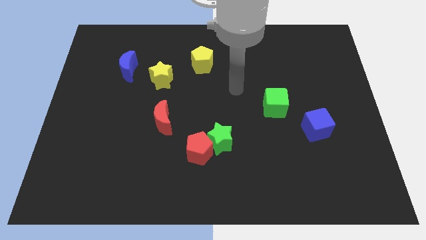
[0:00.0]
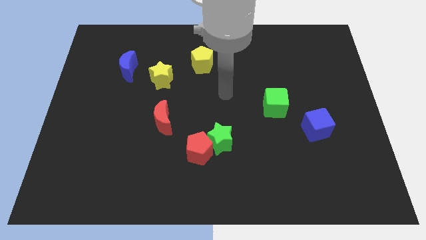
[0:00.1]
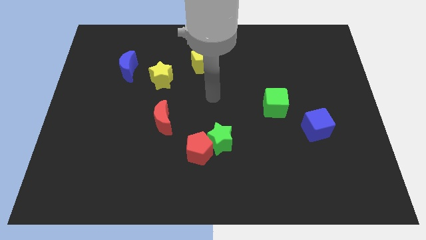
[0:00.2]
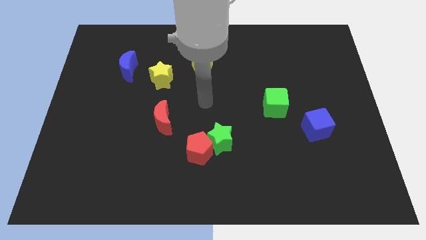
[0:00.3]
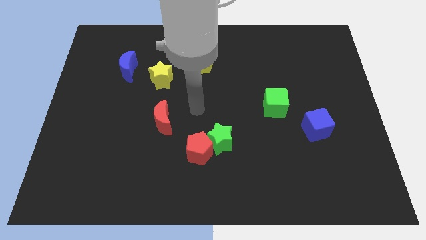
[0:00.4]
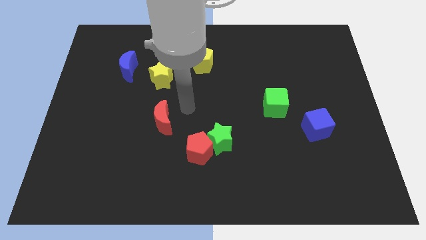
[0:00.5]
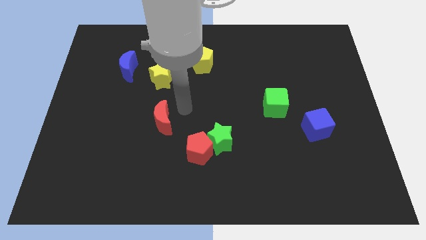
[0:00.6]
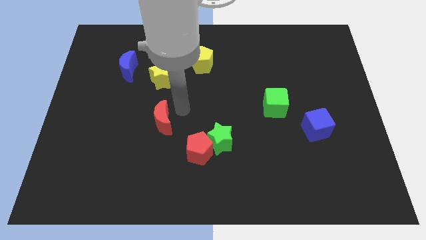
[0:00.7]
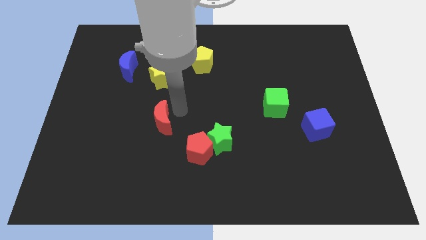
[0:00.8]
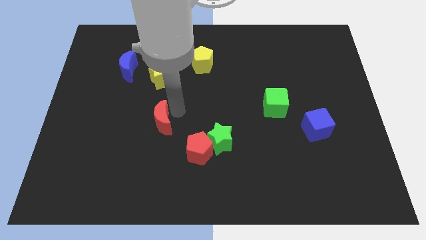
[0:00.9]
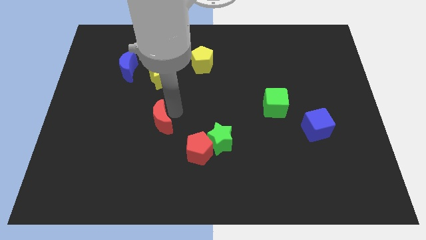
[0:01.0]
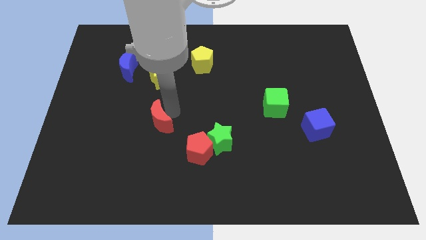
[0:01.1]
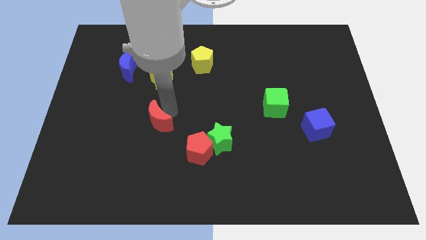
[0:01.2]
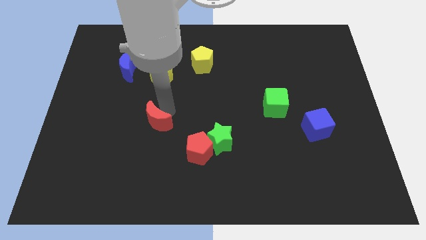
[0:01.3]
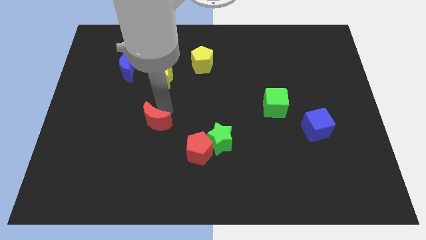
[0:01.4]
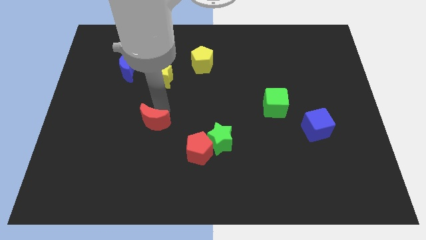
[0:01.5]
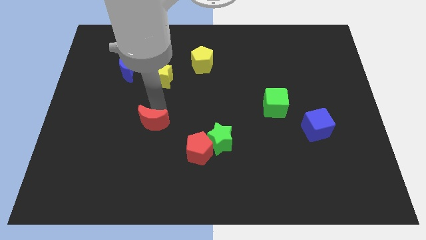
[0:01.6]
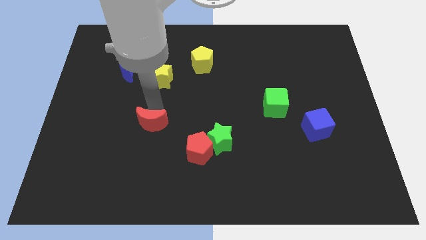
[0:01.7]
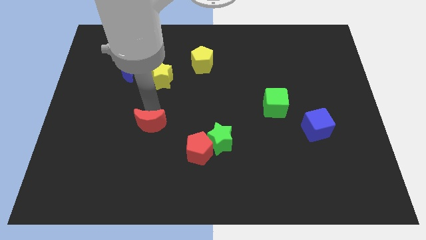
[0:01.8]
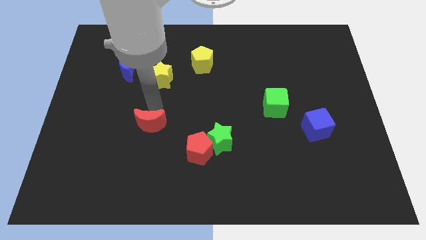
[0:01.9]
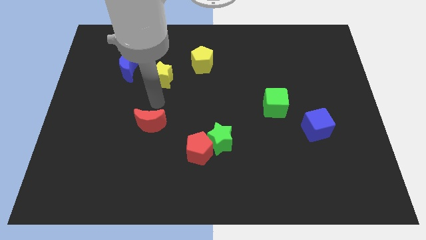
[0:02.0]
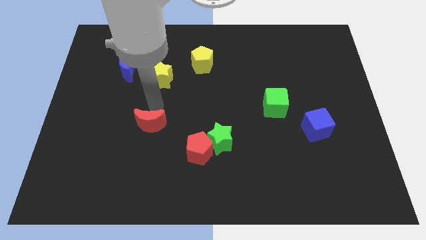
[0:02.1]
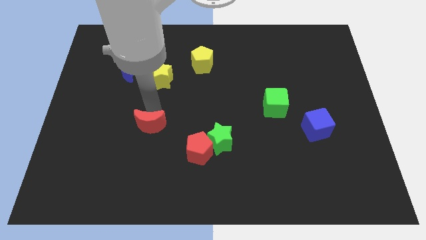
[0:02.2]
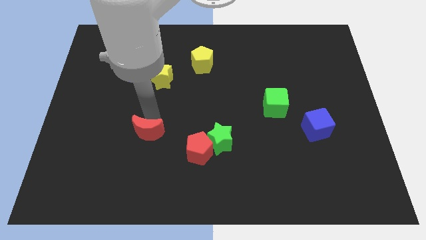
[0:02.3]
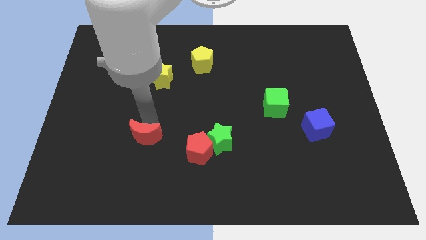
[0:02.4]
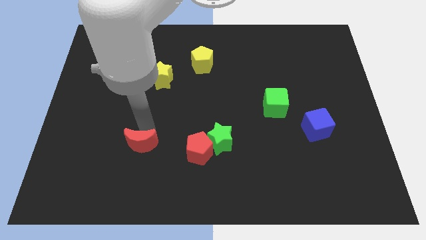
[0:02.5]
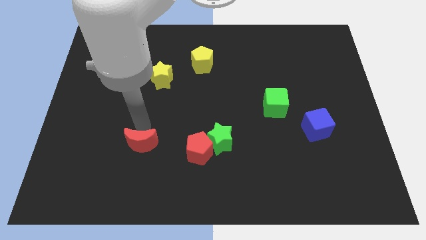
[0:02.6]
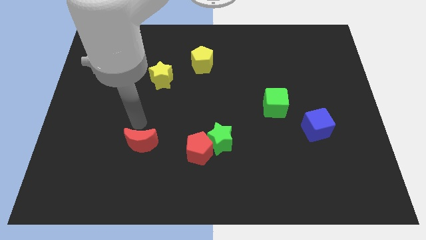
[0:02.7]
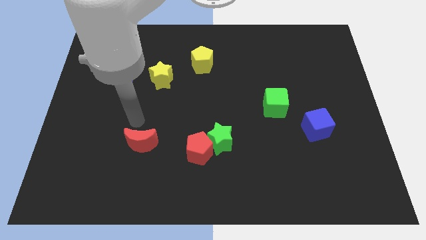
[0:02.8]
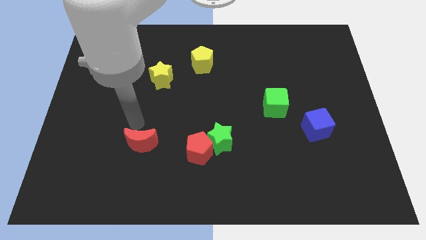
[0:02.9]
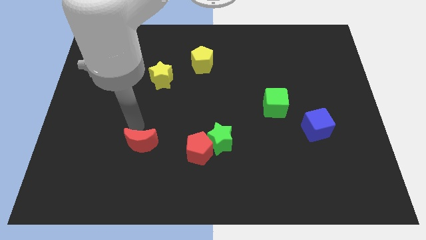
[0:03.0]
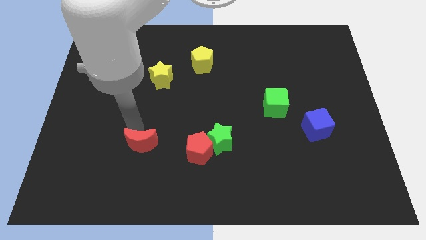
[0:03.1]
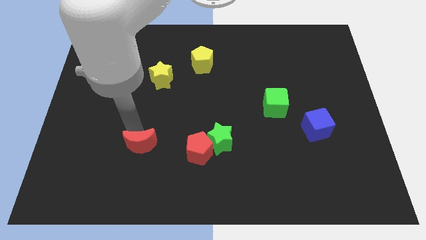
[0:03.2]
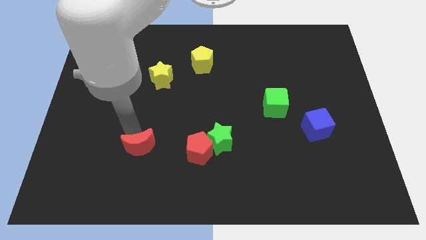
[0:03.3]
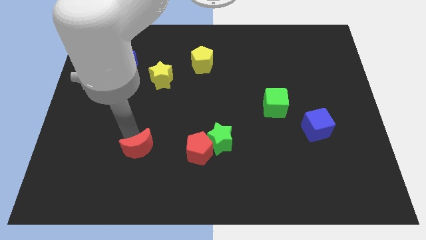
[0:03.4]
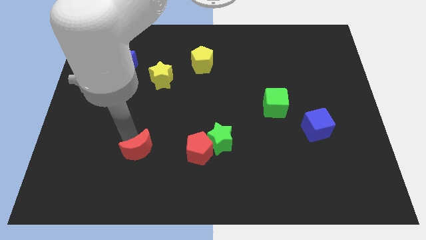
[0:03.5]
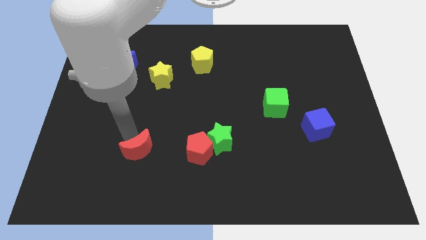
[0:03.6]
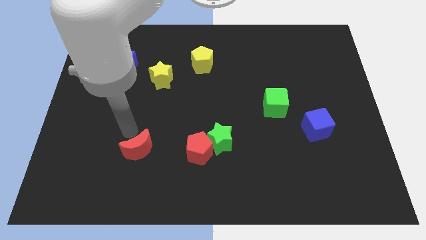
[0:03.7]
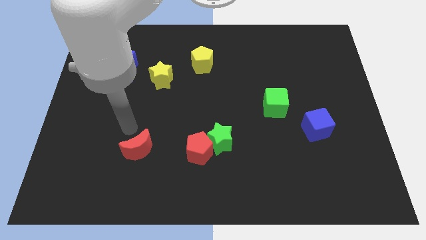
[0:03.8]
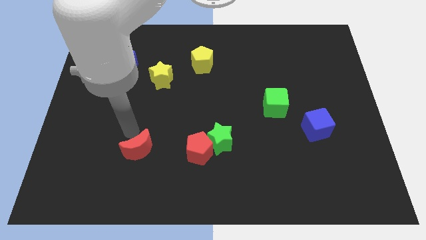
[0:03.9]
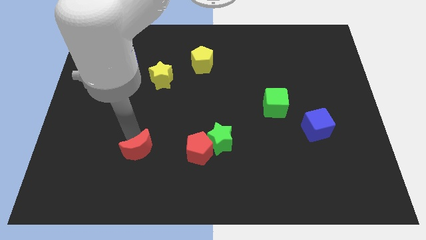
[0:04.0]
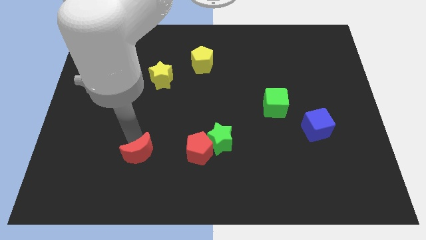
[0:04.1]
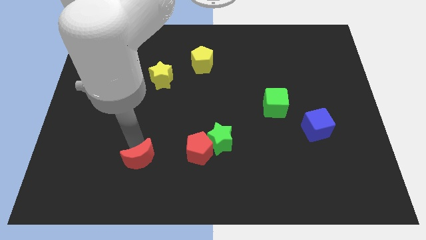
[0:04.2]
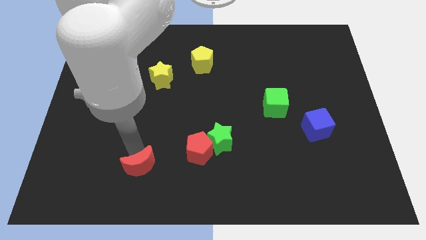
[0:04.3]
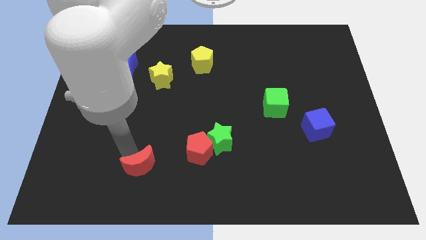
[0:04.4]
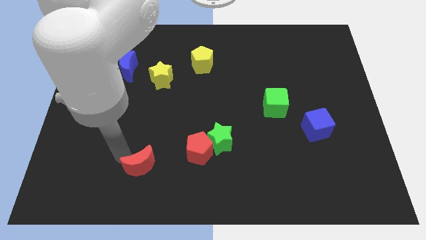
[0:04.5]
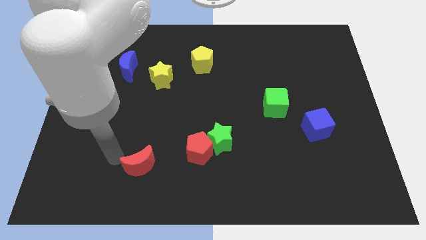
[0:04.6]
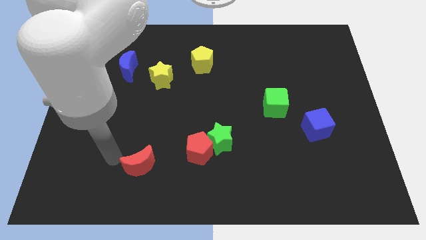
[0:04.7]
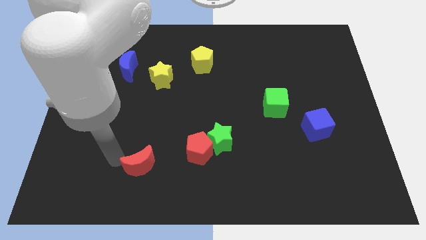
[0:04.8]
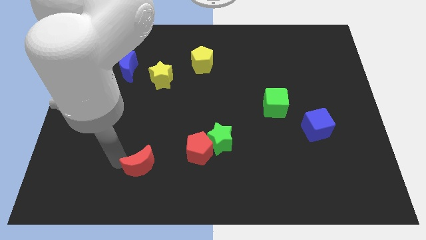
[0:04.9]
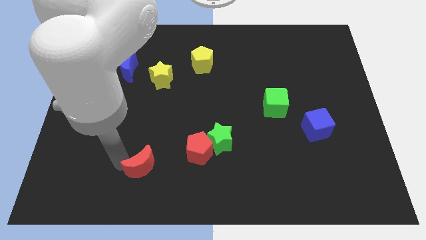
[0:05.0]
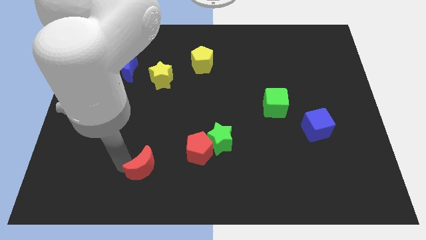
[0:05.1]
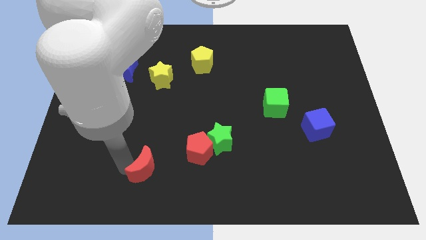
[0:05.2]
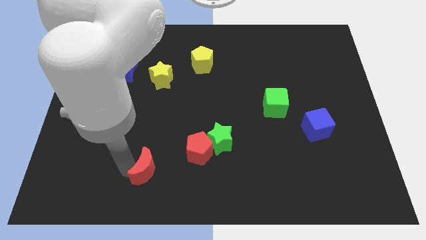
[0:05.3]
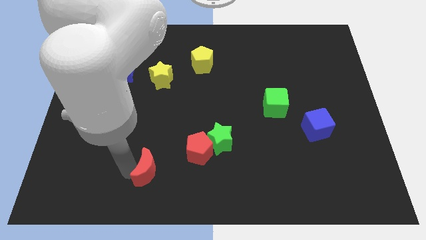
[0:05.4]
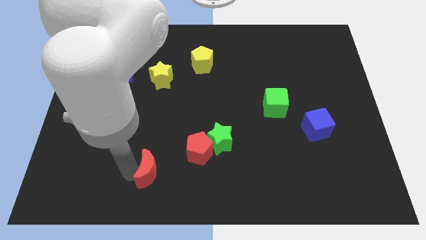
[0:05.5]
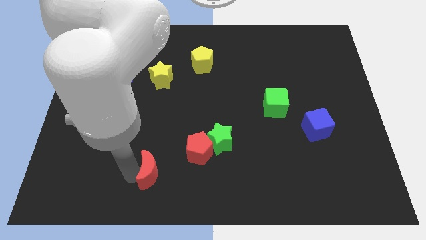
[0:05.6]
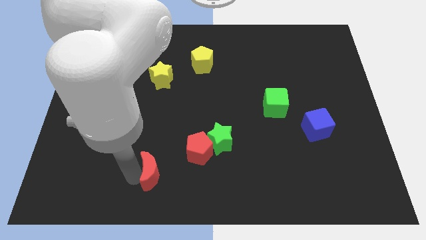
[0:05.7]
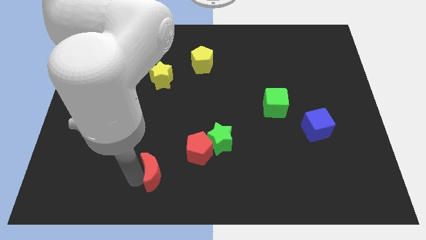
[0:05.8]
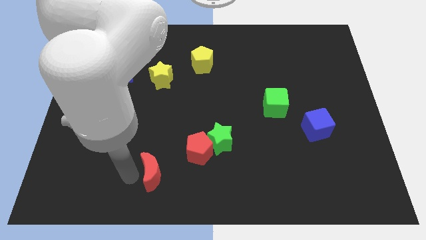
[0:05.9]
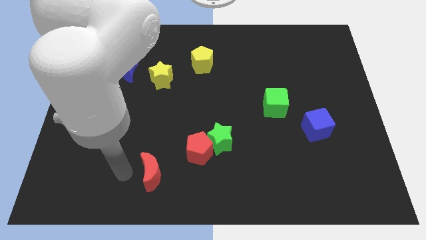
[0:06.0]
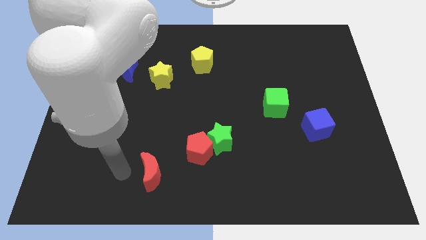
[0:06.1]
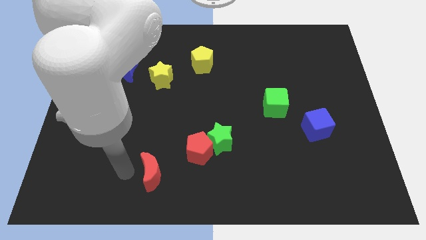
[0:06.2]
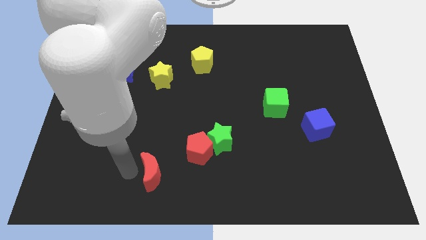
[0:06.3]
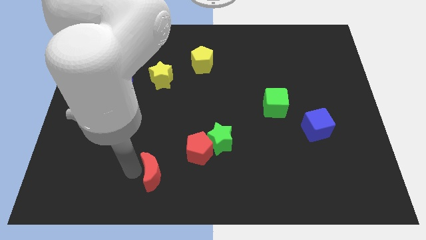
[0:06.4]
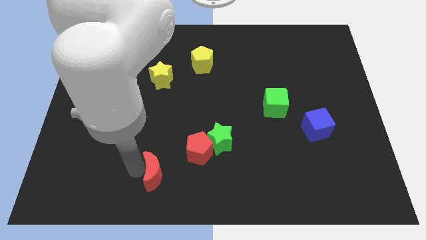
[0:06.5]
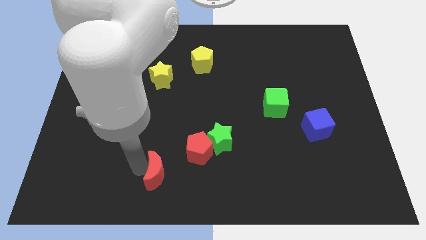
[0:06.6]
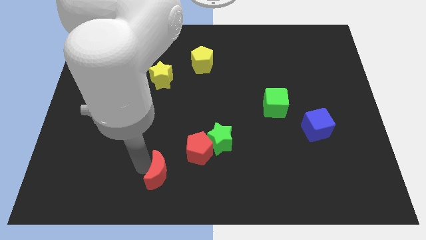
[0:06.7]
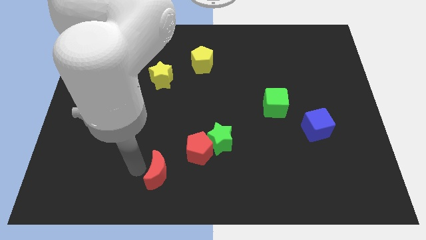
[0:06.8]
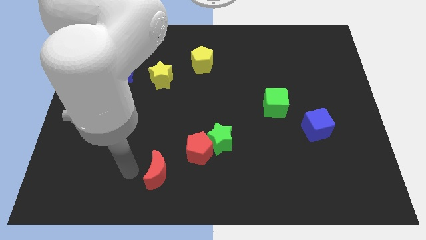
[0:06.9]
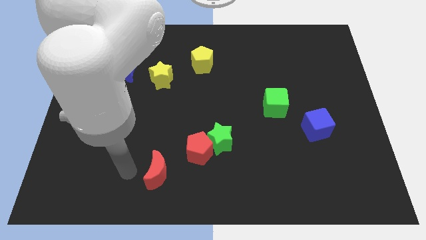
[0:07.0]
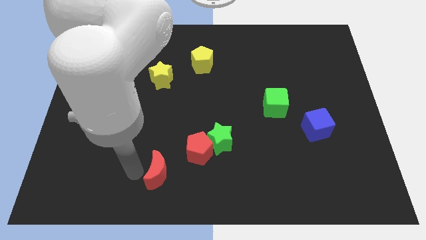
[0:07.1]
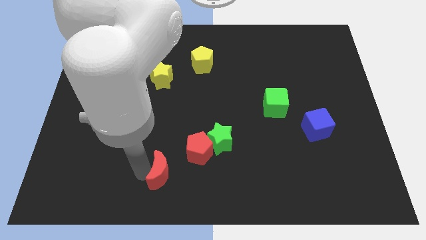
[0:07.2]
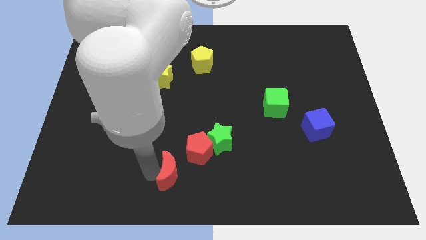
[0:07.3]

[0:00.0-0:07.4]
slightly slide the red moon downwards and right diagonally

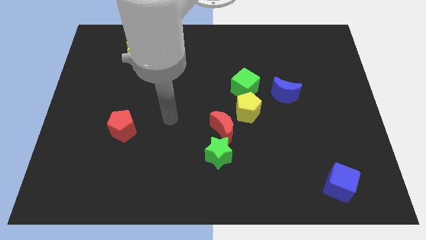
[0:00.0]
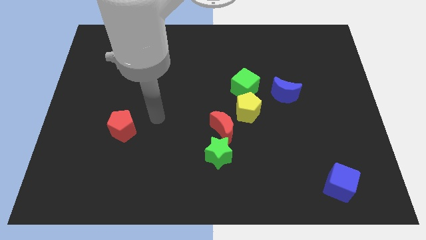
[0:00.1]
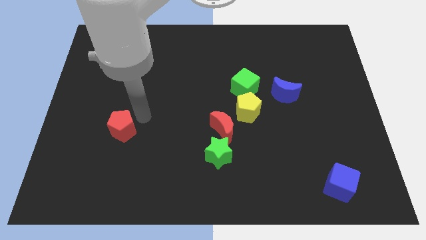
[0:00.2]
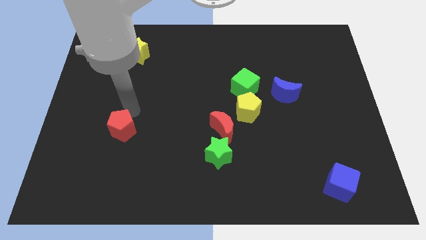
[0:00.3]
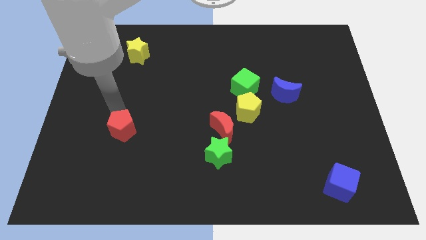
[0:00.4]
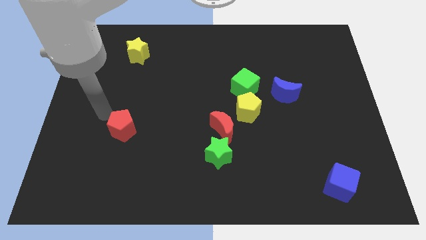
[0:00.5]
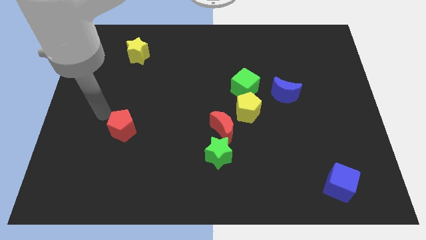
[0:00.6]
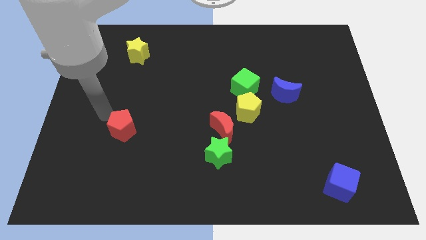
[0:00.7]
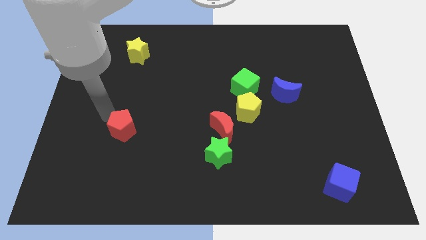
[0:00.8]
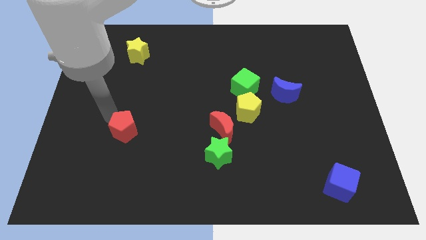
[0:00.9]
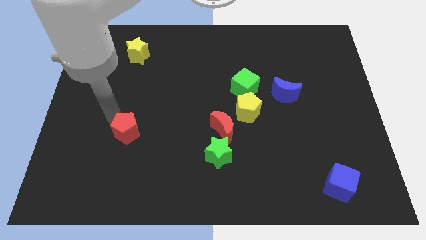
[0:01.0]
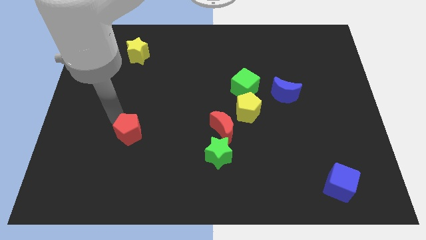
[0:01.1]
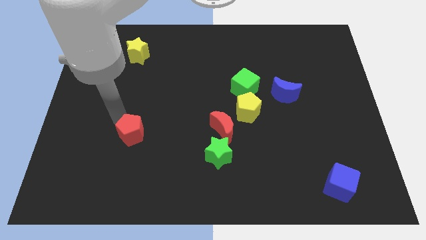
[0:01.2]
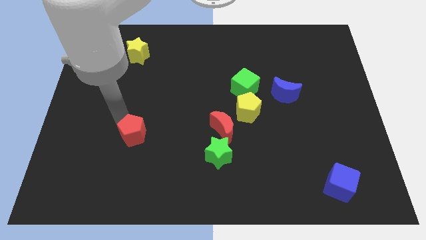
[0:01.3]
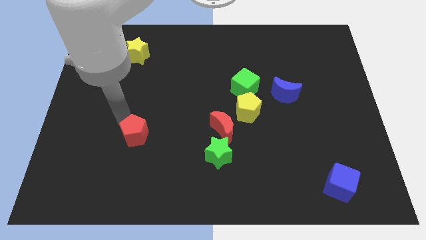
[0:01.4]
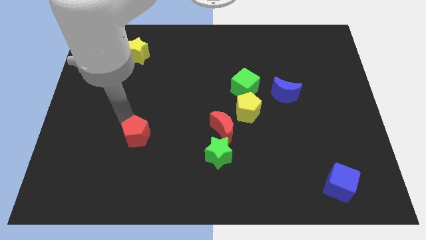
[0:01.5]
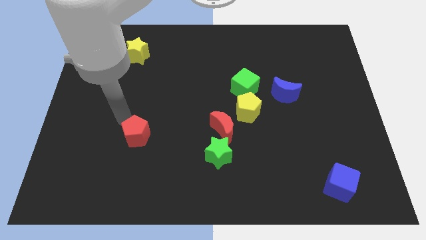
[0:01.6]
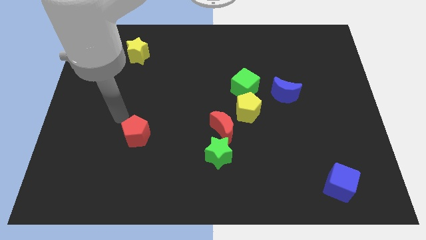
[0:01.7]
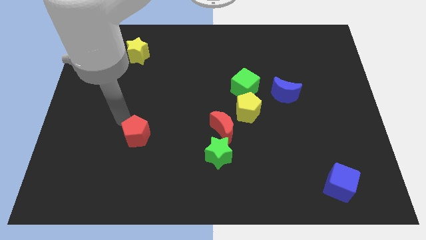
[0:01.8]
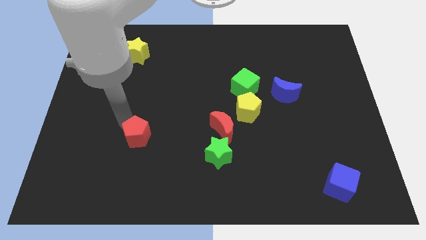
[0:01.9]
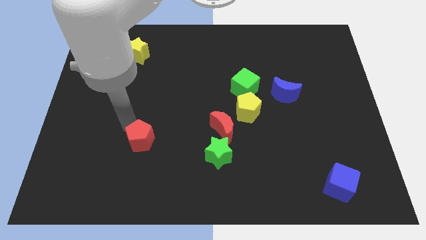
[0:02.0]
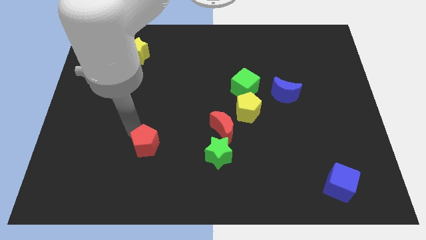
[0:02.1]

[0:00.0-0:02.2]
slide the red pentagon diagonally downwards and to the right a little
